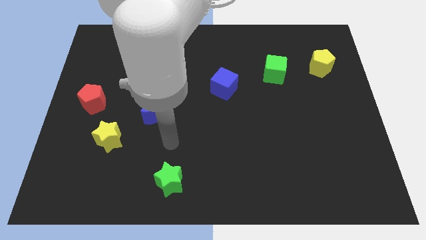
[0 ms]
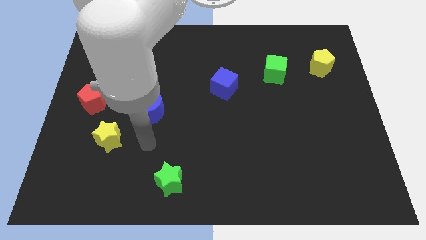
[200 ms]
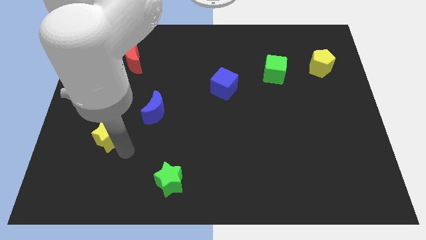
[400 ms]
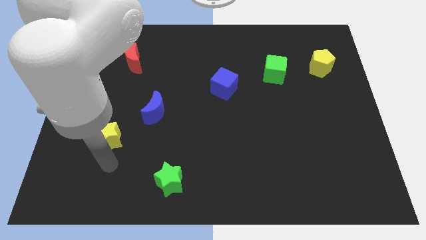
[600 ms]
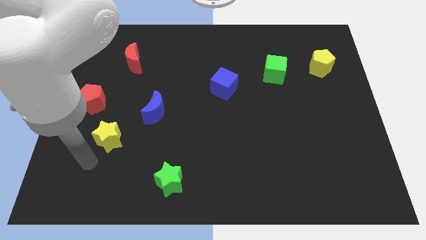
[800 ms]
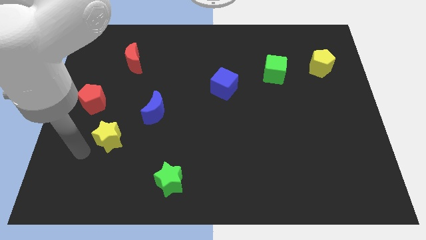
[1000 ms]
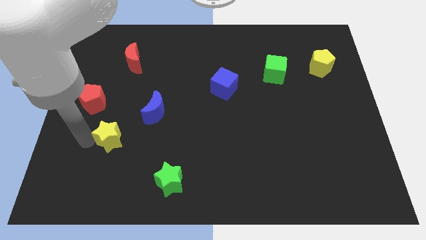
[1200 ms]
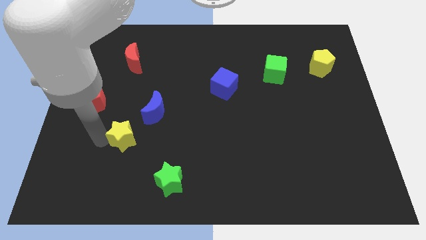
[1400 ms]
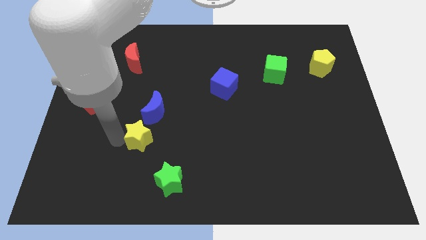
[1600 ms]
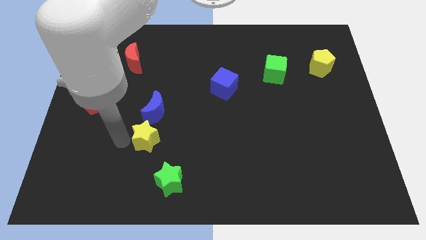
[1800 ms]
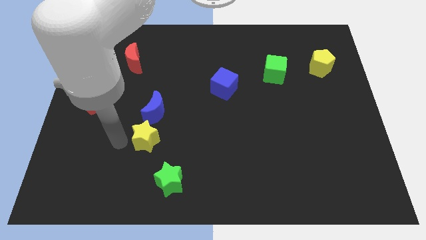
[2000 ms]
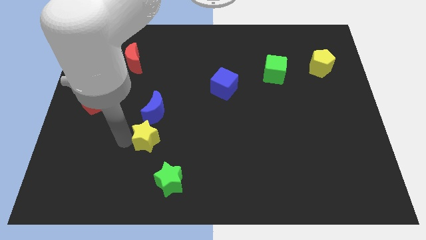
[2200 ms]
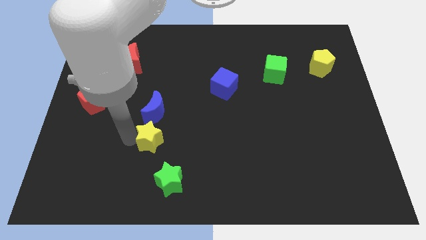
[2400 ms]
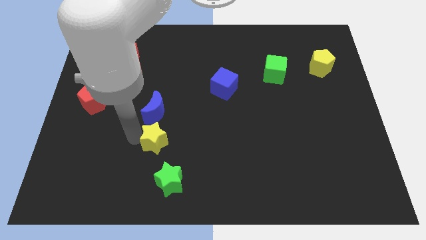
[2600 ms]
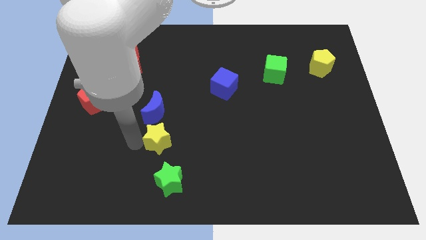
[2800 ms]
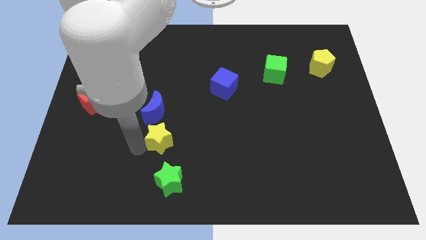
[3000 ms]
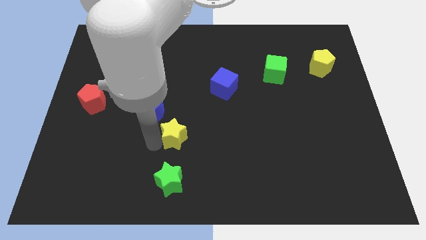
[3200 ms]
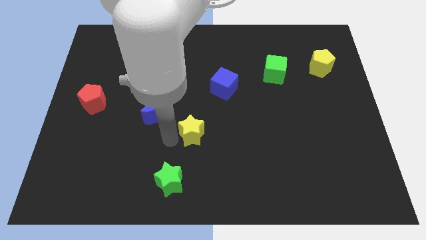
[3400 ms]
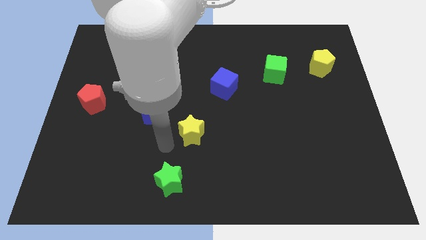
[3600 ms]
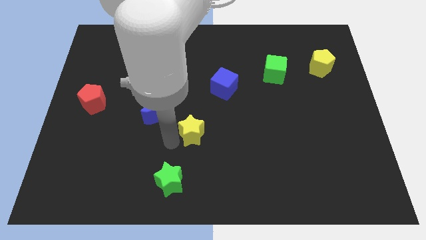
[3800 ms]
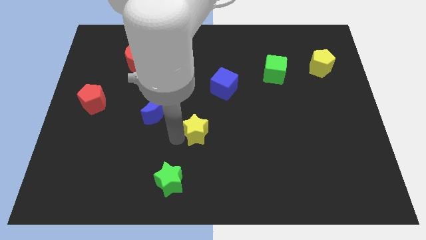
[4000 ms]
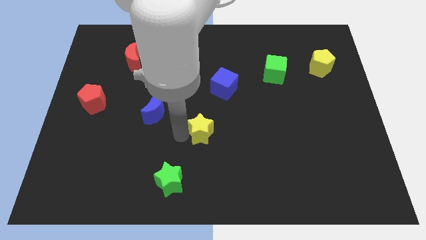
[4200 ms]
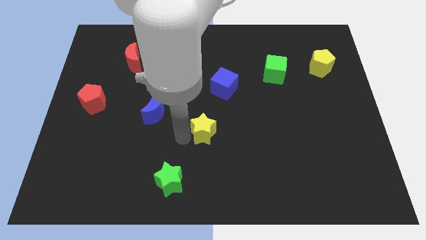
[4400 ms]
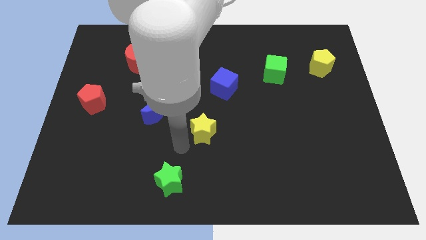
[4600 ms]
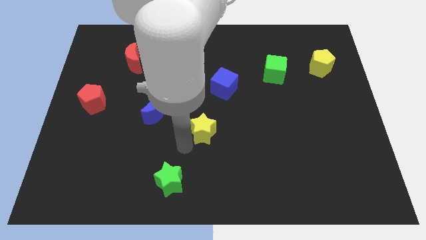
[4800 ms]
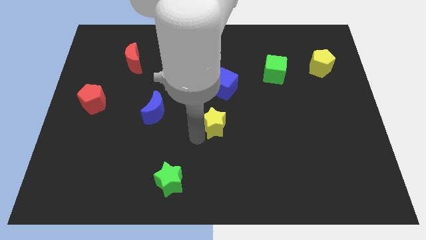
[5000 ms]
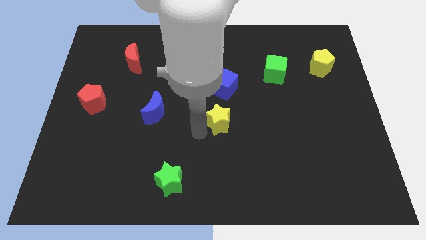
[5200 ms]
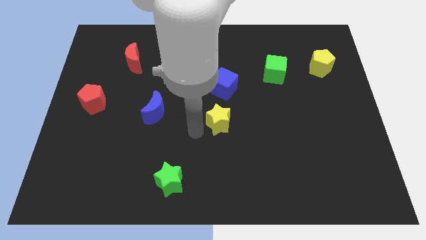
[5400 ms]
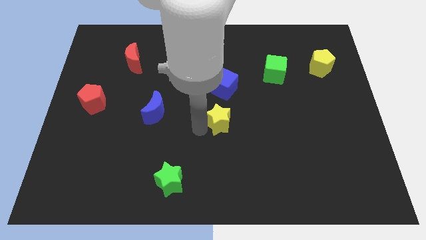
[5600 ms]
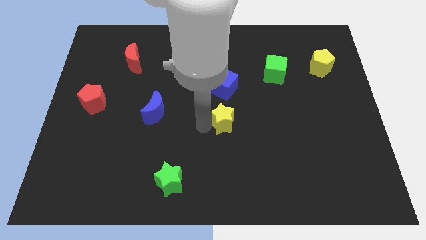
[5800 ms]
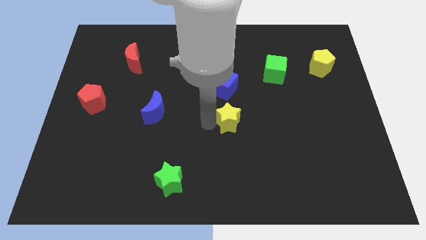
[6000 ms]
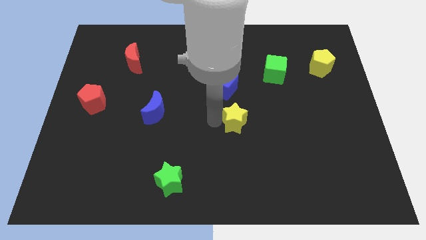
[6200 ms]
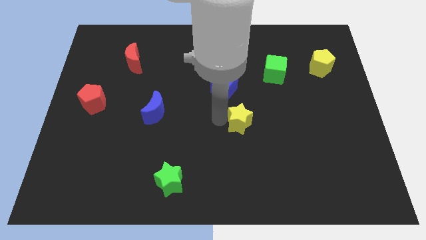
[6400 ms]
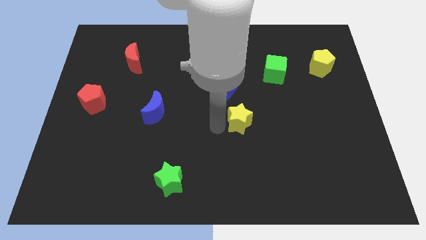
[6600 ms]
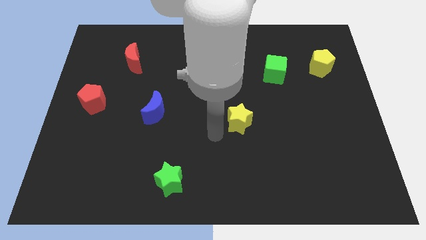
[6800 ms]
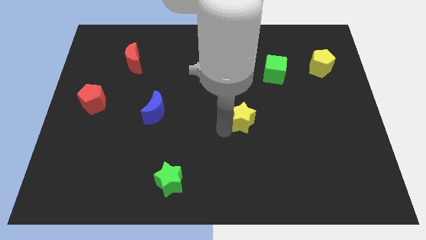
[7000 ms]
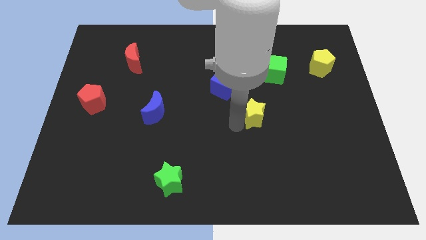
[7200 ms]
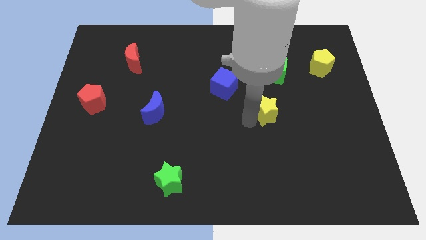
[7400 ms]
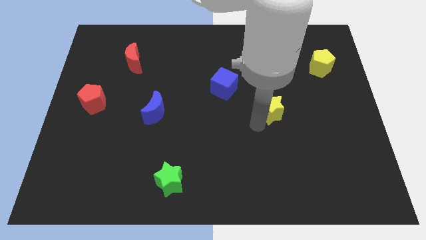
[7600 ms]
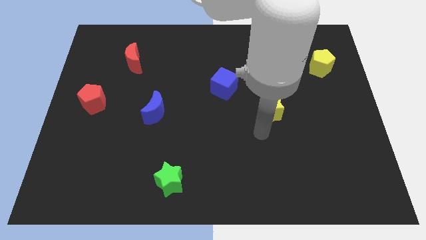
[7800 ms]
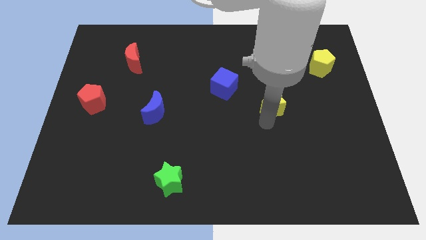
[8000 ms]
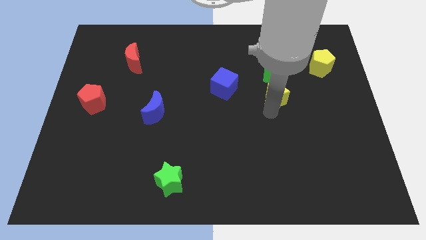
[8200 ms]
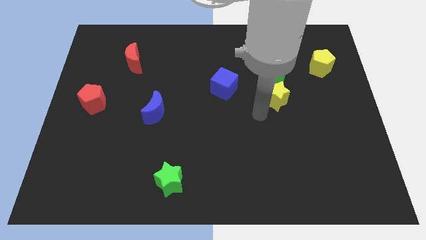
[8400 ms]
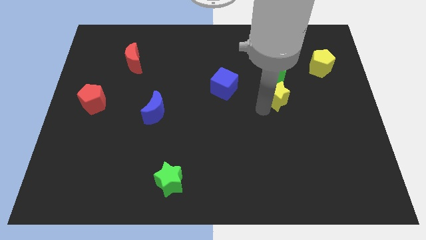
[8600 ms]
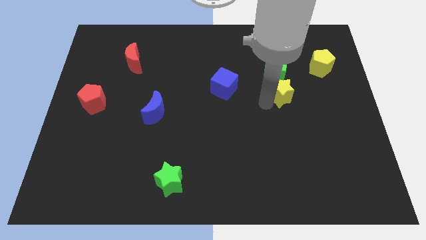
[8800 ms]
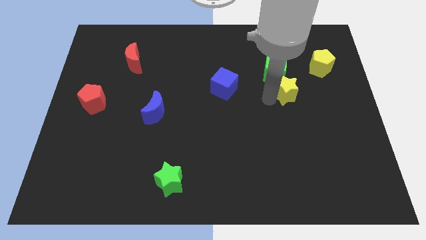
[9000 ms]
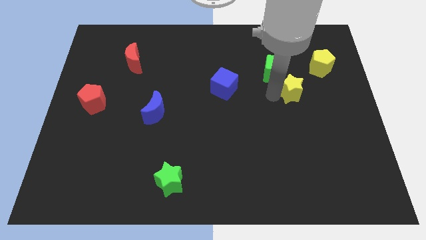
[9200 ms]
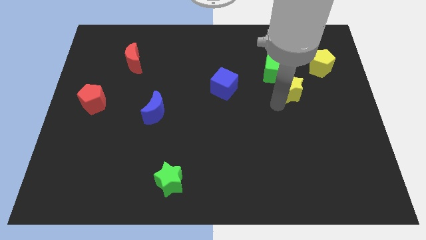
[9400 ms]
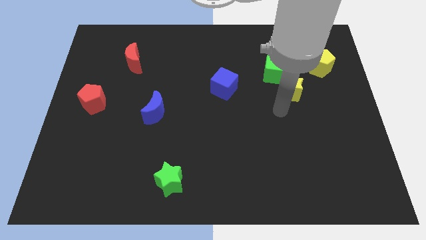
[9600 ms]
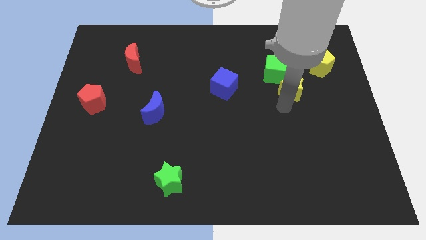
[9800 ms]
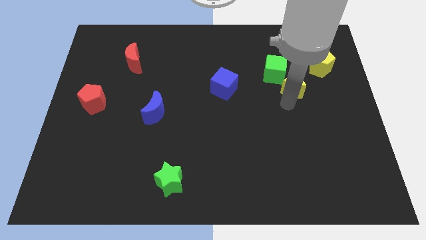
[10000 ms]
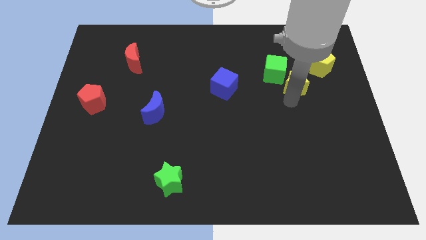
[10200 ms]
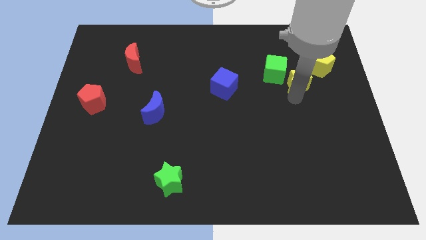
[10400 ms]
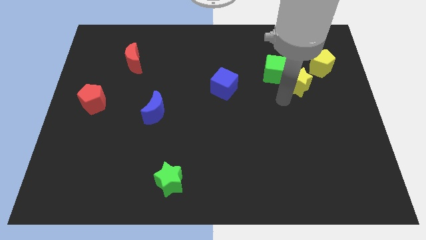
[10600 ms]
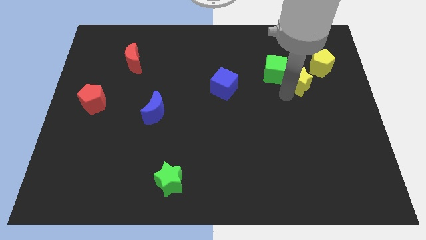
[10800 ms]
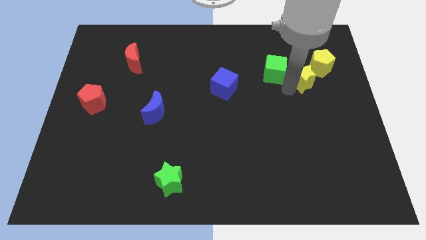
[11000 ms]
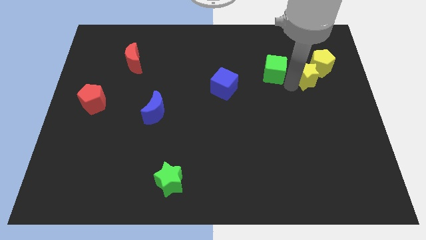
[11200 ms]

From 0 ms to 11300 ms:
push the yellow star to the yellow pentagon

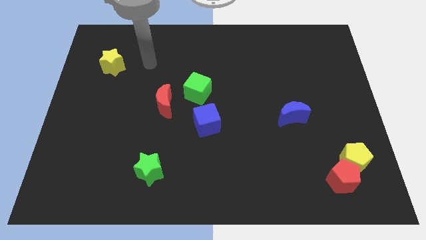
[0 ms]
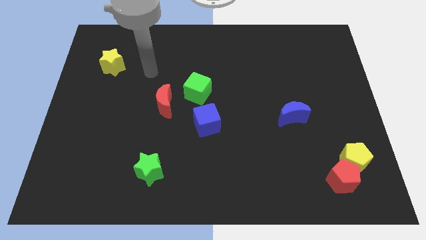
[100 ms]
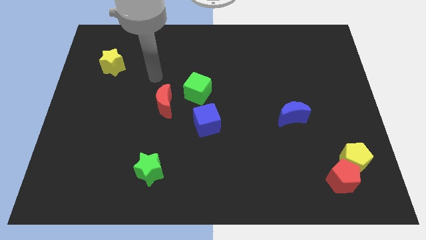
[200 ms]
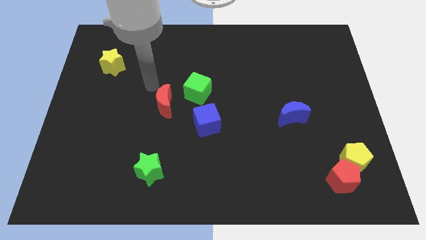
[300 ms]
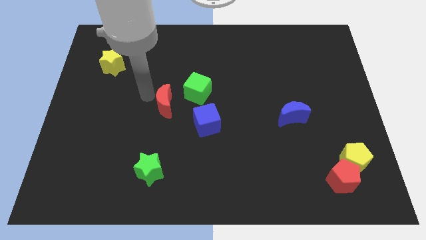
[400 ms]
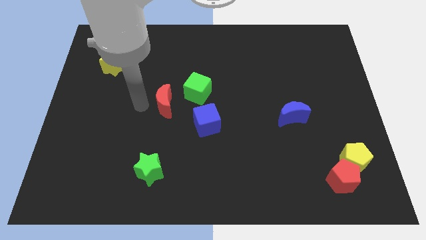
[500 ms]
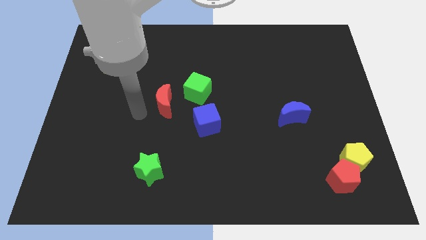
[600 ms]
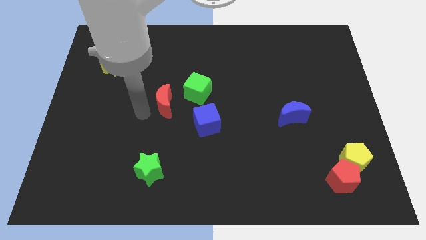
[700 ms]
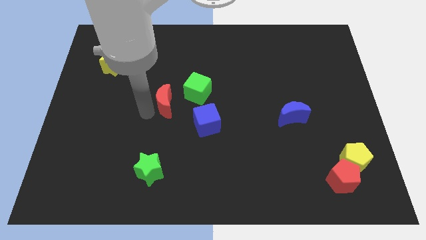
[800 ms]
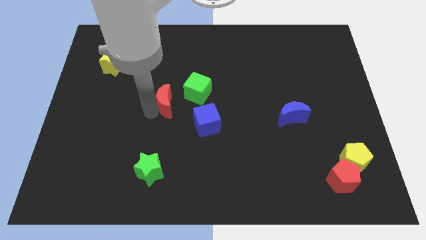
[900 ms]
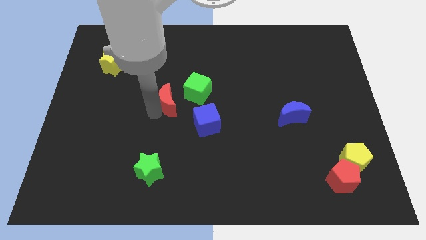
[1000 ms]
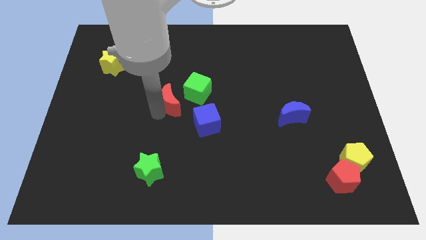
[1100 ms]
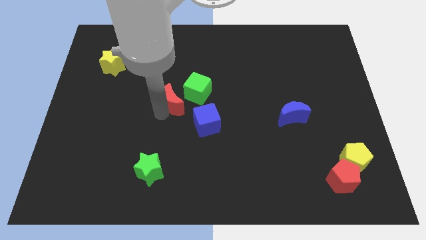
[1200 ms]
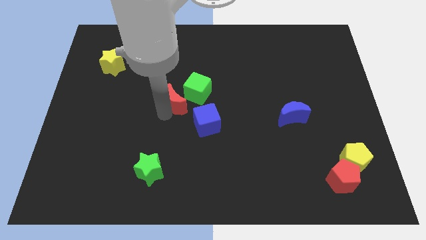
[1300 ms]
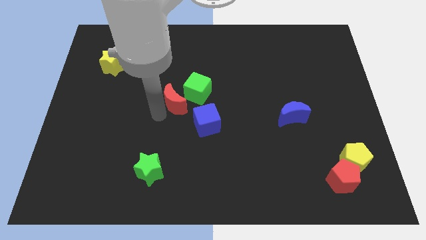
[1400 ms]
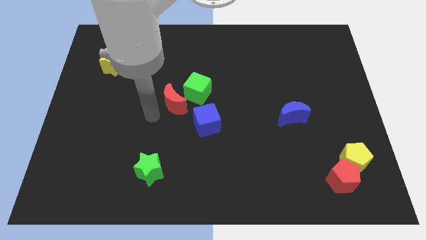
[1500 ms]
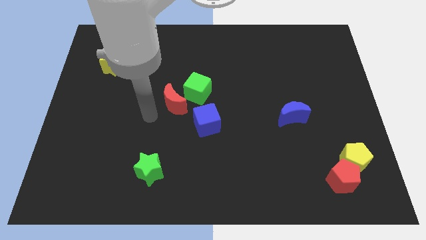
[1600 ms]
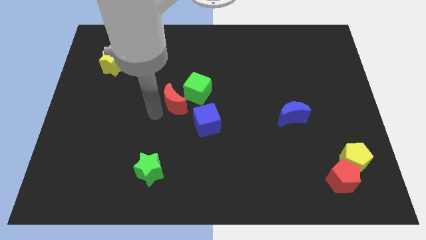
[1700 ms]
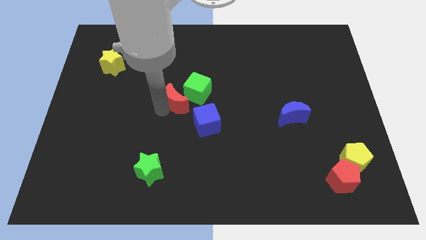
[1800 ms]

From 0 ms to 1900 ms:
push the red moon close to the green cube
